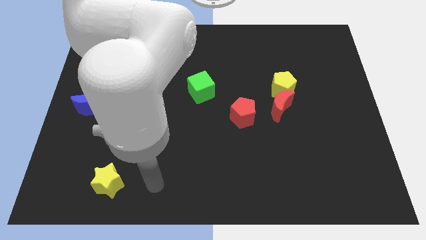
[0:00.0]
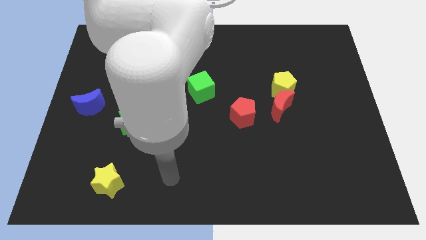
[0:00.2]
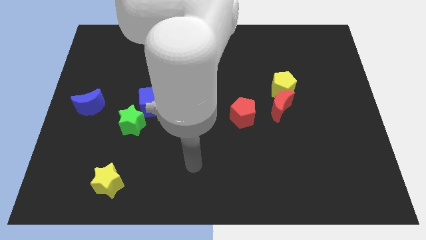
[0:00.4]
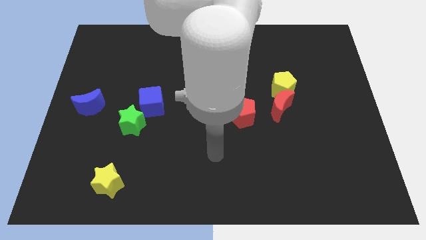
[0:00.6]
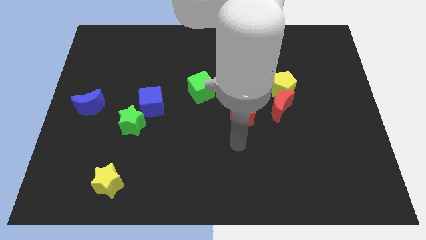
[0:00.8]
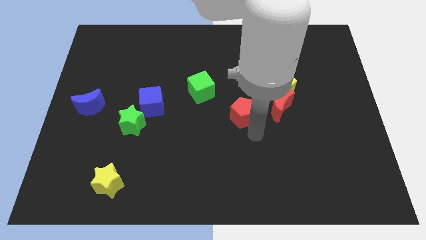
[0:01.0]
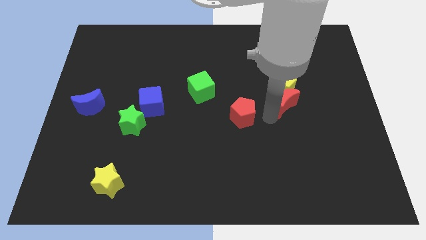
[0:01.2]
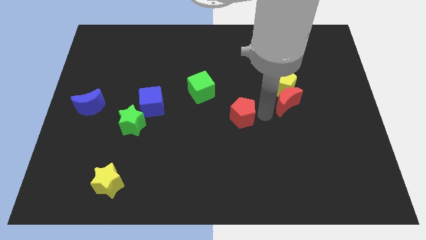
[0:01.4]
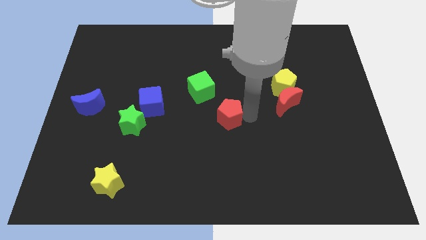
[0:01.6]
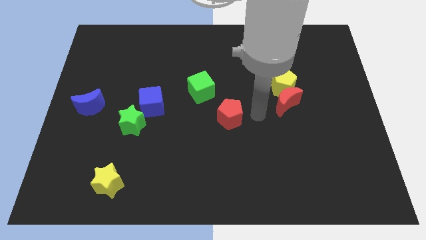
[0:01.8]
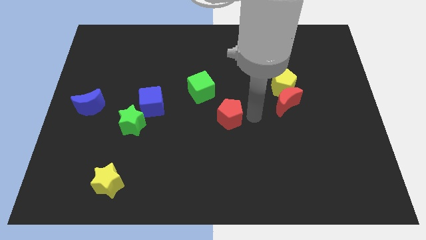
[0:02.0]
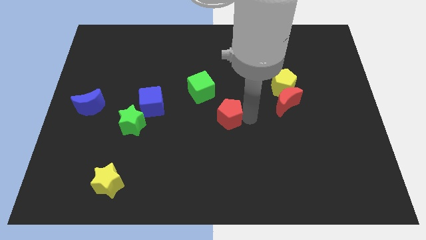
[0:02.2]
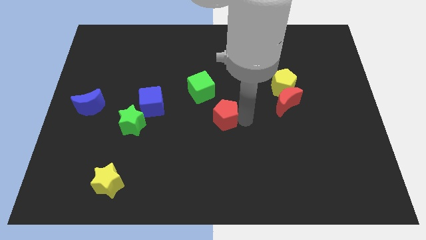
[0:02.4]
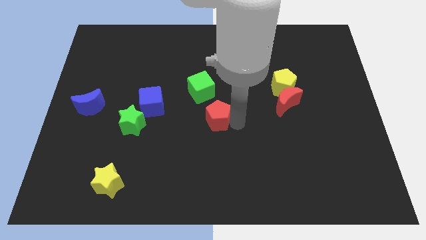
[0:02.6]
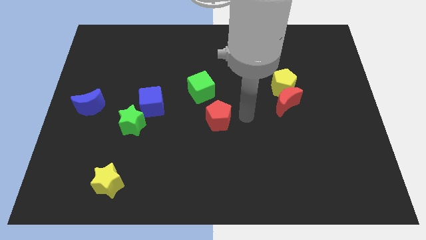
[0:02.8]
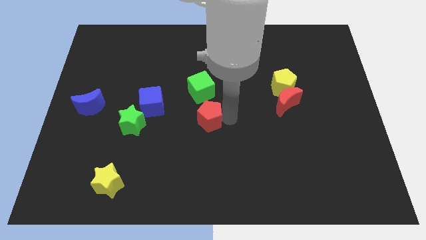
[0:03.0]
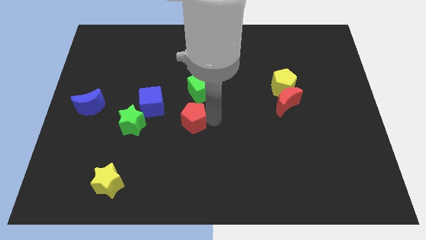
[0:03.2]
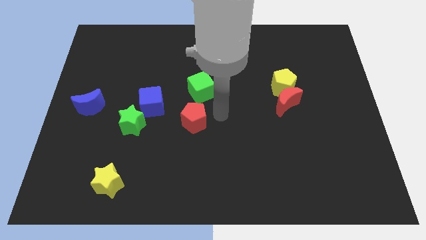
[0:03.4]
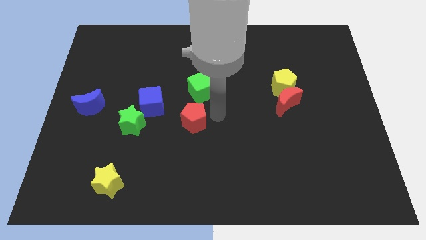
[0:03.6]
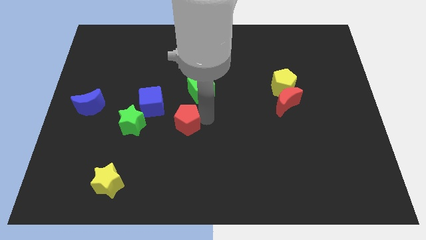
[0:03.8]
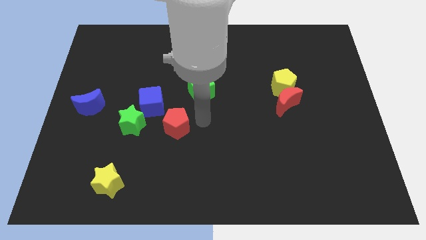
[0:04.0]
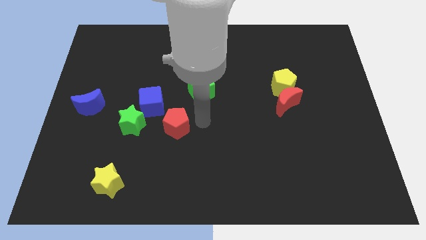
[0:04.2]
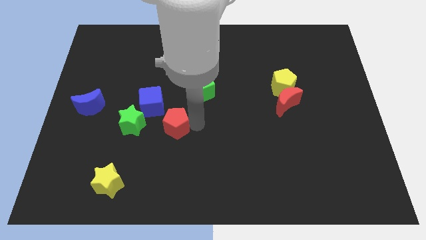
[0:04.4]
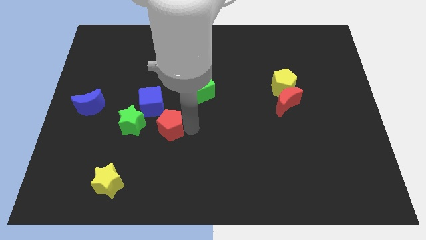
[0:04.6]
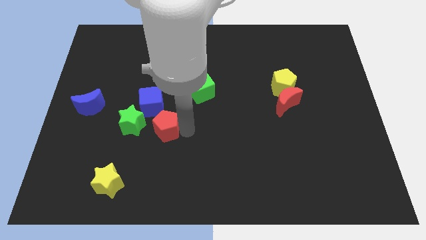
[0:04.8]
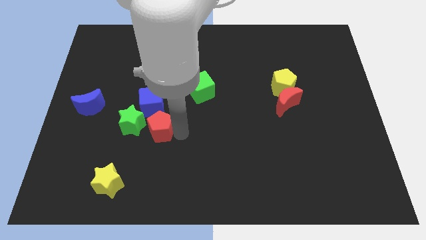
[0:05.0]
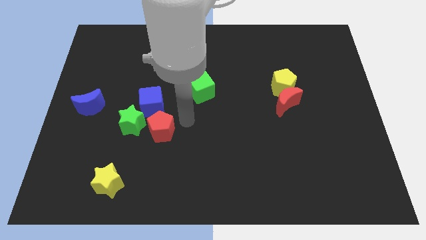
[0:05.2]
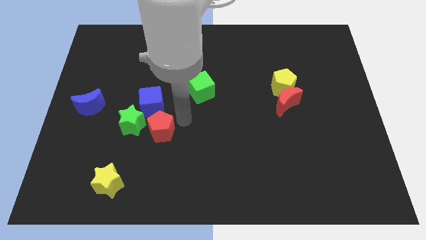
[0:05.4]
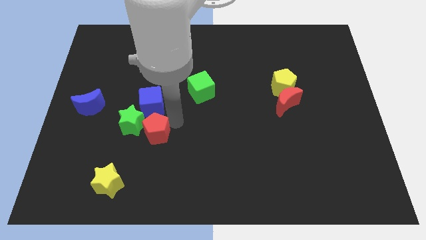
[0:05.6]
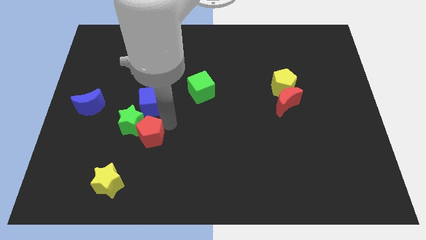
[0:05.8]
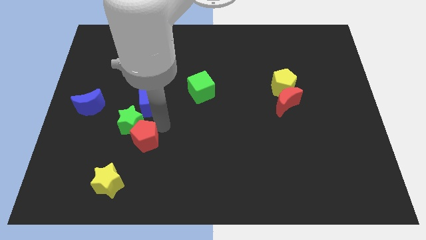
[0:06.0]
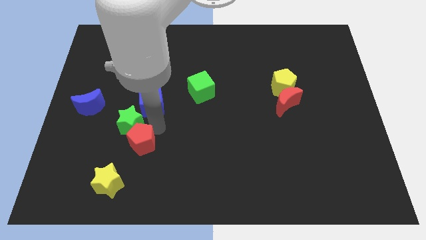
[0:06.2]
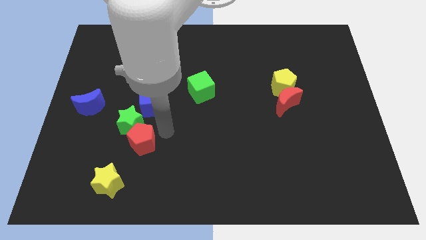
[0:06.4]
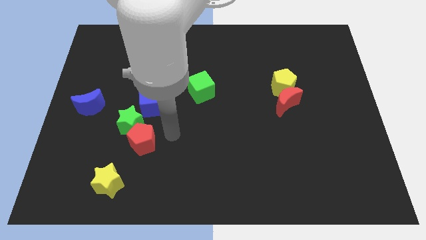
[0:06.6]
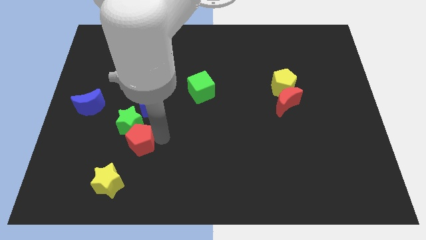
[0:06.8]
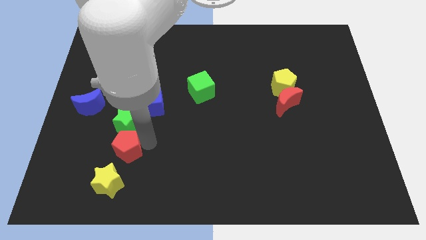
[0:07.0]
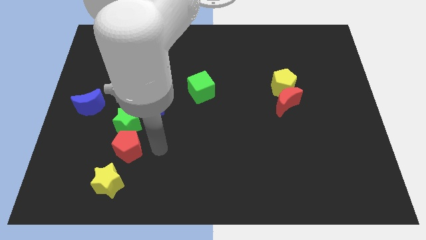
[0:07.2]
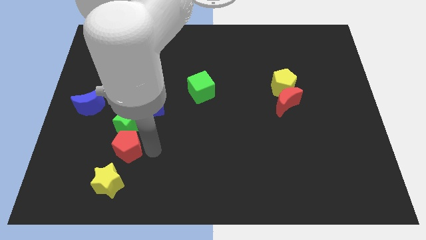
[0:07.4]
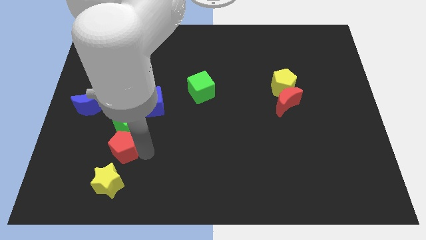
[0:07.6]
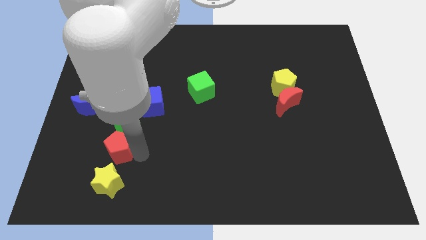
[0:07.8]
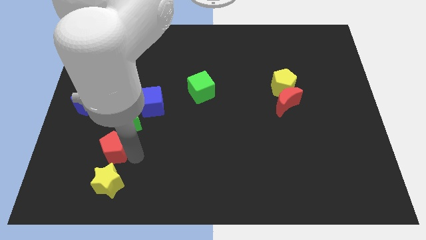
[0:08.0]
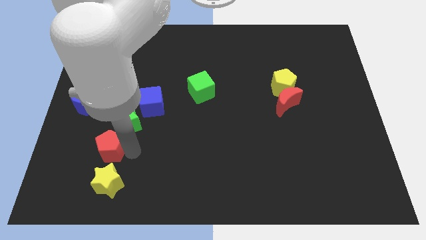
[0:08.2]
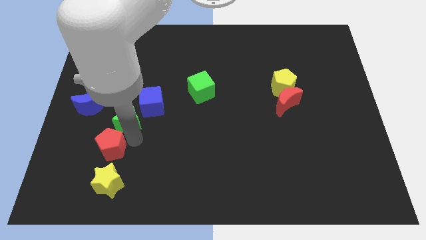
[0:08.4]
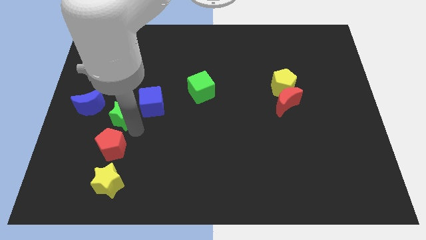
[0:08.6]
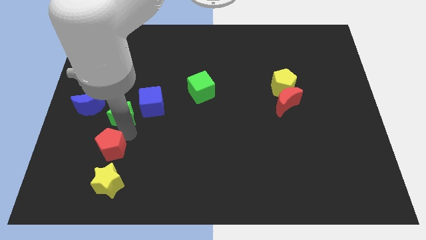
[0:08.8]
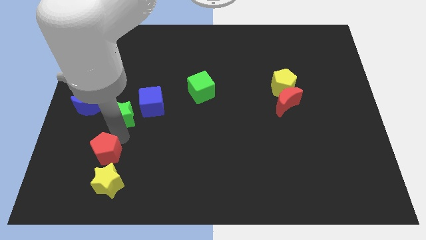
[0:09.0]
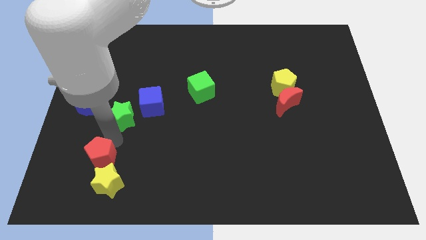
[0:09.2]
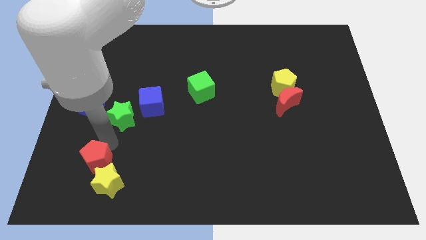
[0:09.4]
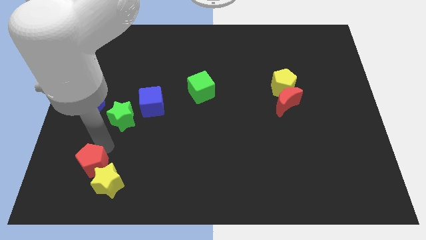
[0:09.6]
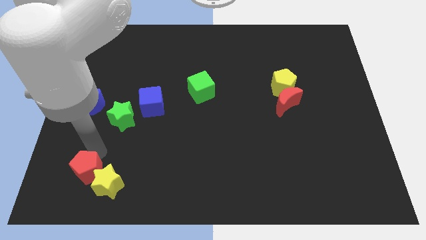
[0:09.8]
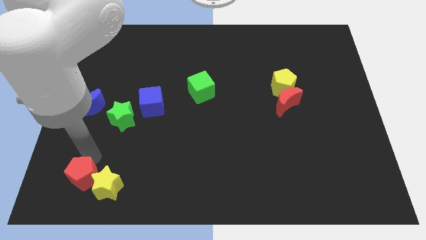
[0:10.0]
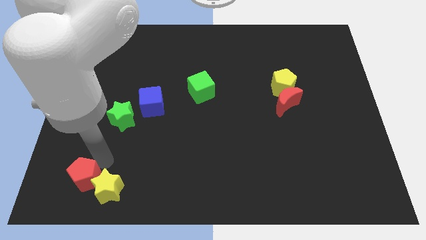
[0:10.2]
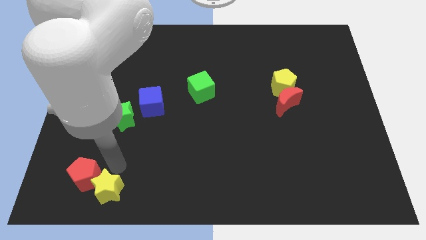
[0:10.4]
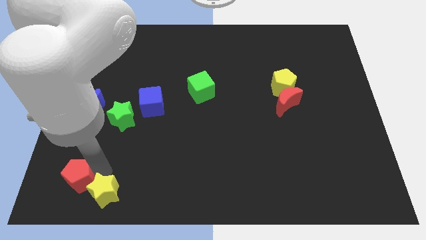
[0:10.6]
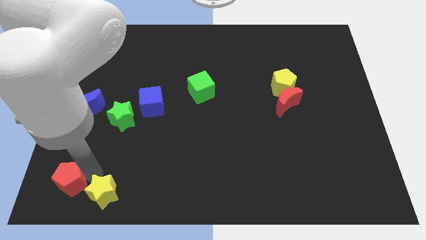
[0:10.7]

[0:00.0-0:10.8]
slide the red pentagon to the bottom left corner

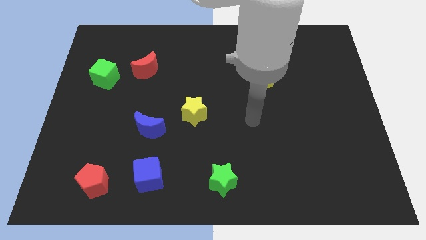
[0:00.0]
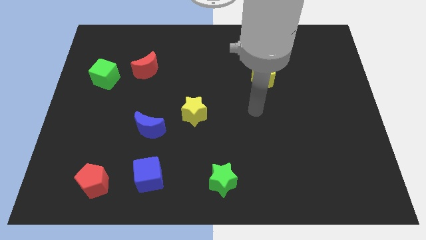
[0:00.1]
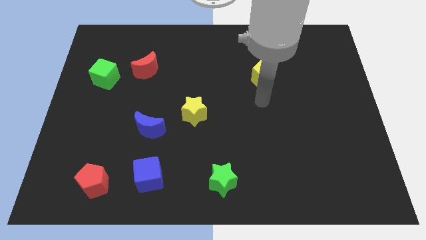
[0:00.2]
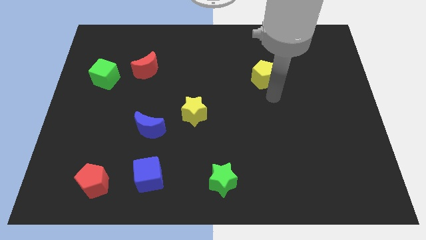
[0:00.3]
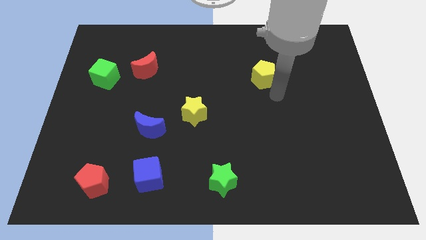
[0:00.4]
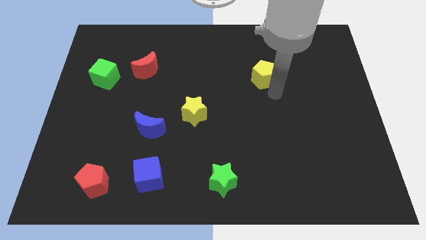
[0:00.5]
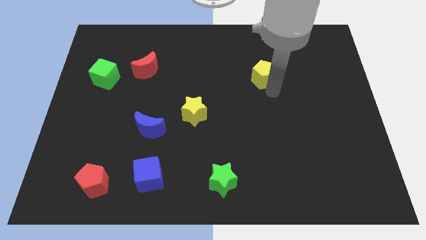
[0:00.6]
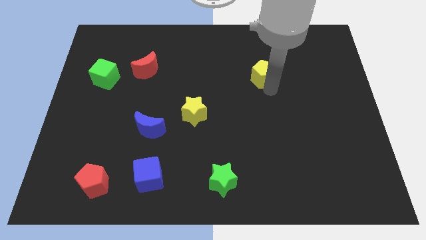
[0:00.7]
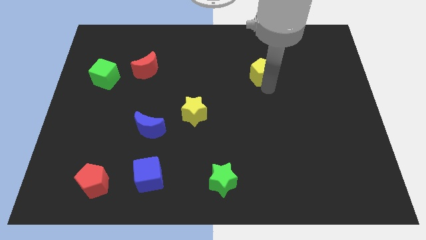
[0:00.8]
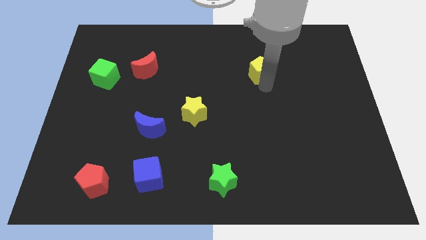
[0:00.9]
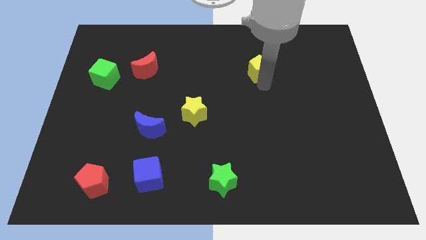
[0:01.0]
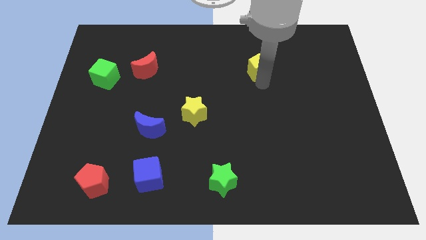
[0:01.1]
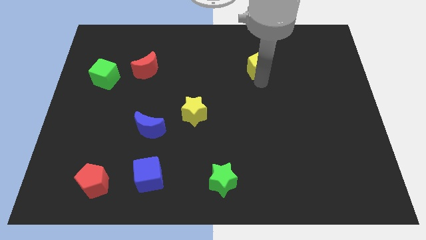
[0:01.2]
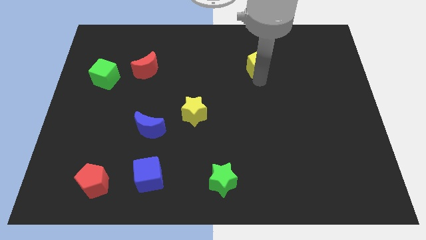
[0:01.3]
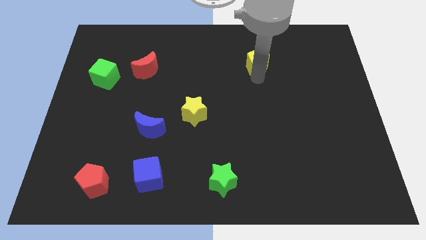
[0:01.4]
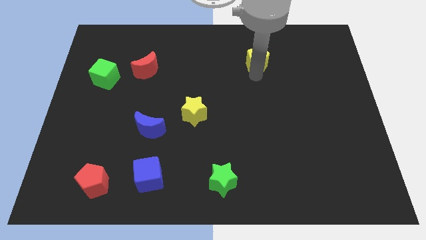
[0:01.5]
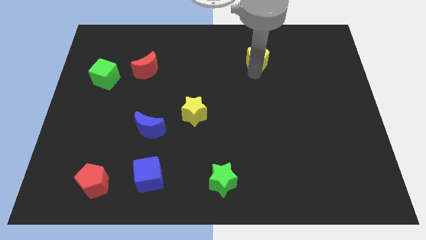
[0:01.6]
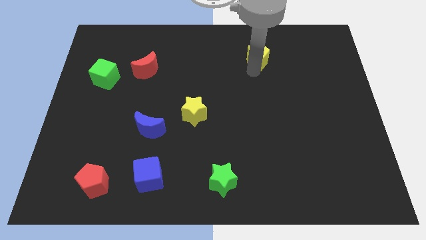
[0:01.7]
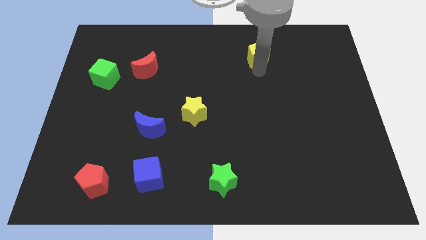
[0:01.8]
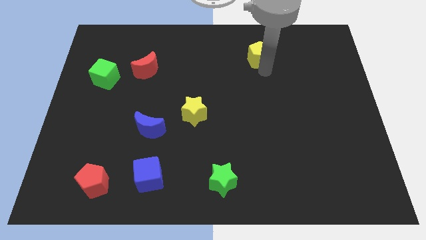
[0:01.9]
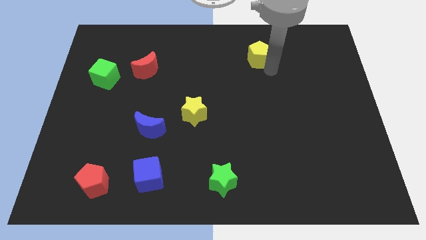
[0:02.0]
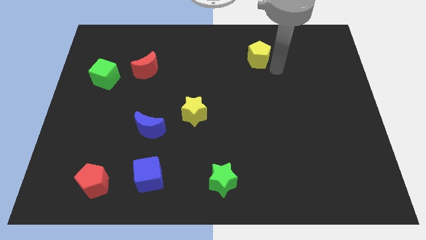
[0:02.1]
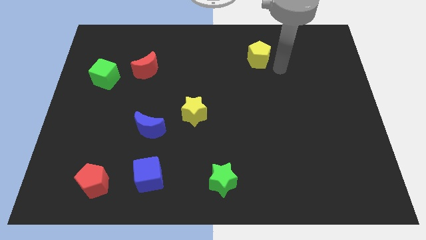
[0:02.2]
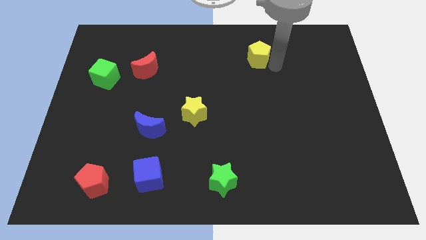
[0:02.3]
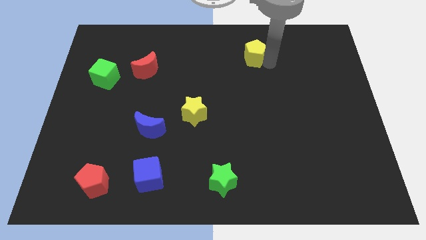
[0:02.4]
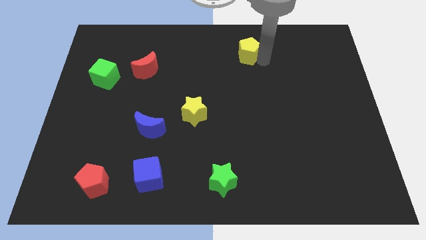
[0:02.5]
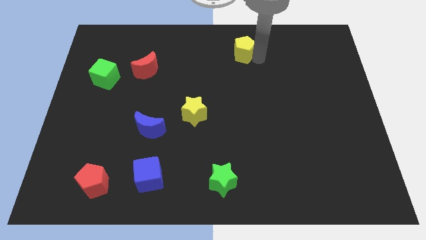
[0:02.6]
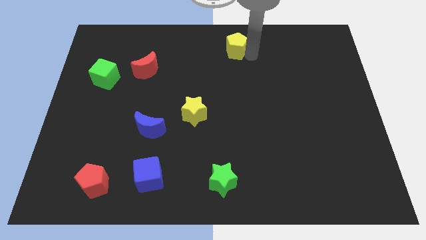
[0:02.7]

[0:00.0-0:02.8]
move the yellow pentagon to the top side
